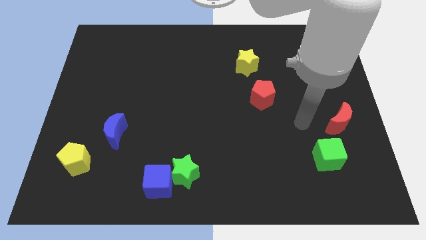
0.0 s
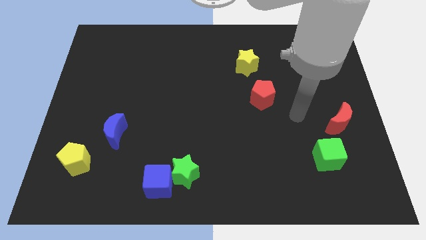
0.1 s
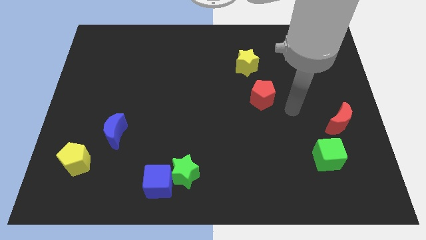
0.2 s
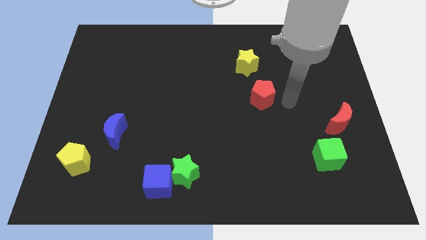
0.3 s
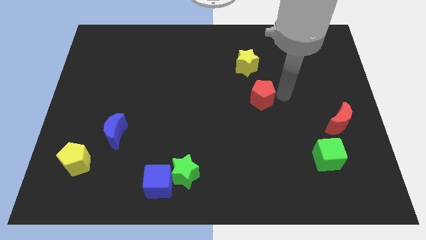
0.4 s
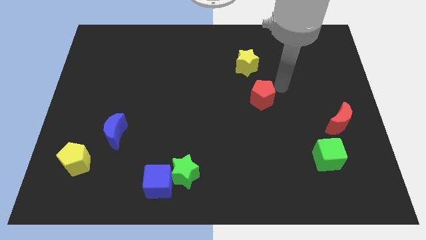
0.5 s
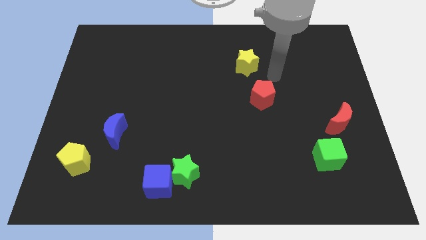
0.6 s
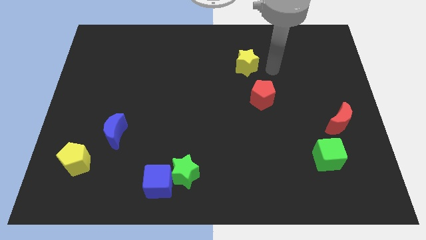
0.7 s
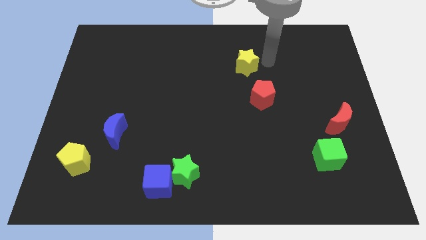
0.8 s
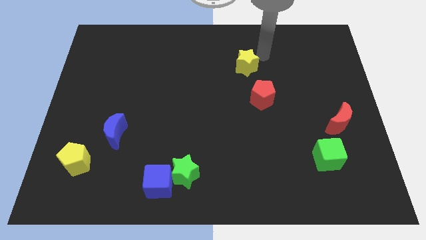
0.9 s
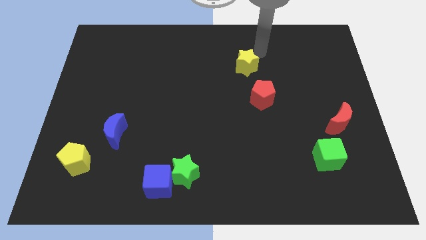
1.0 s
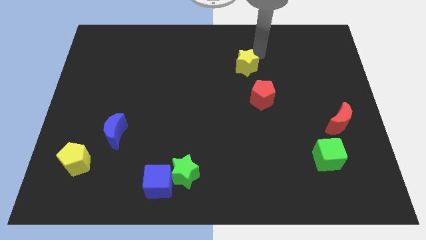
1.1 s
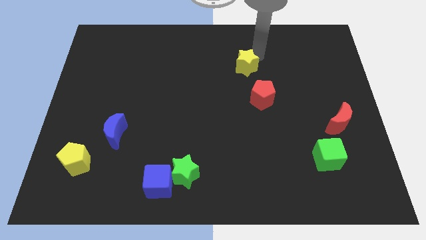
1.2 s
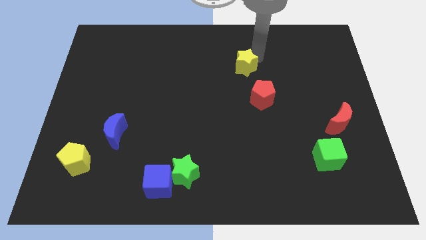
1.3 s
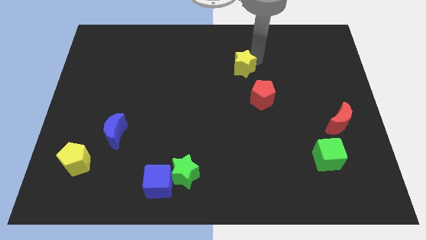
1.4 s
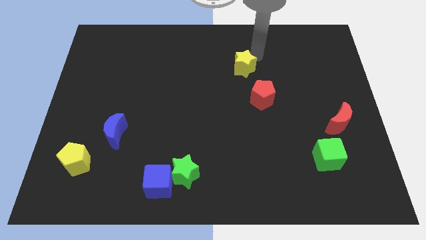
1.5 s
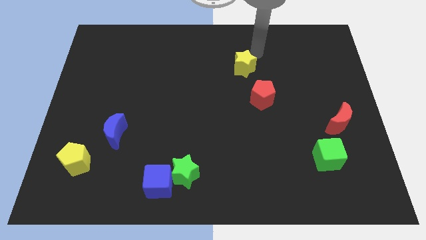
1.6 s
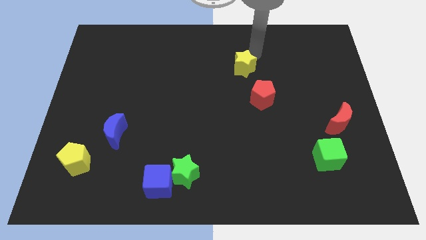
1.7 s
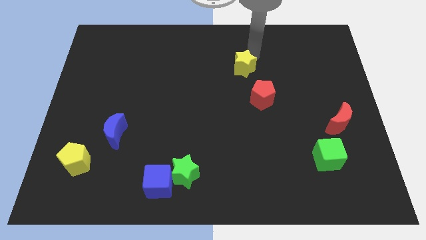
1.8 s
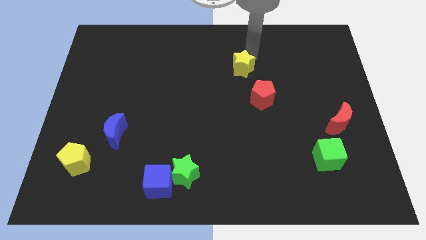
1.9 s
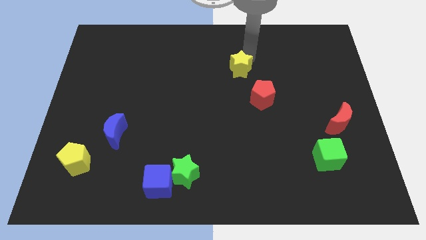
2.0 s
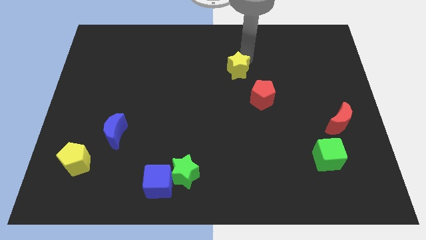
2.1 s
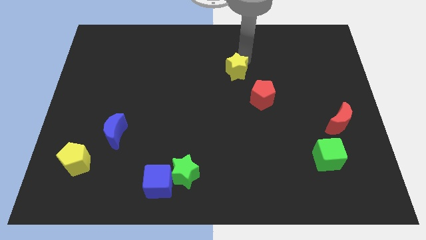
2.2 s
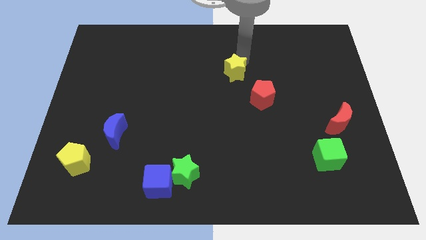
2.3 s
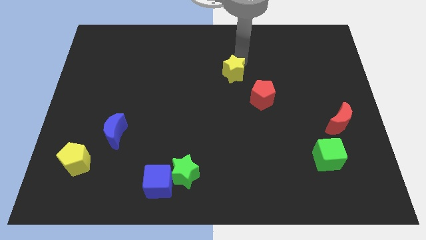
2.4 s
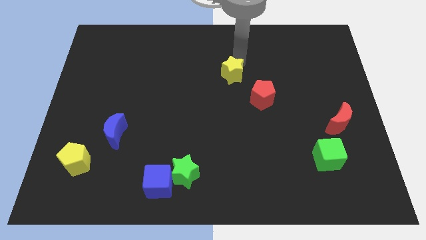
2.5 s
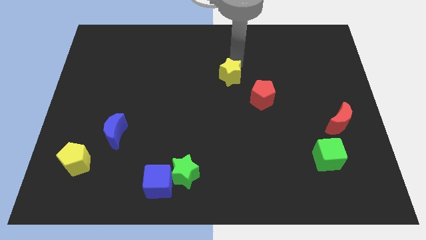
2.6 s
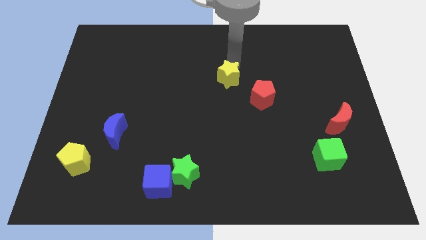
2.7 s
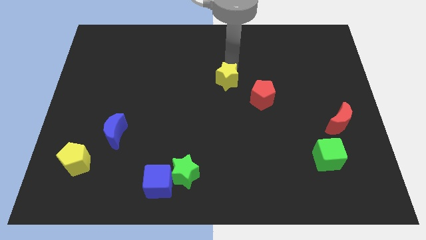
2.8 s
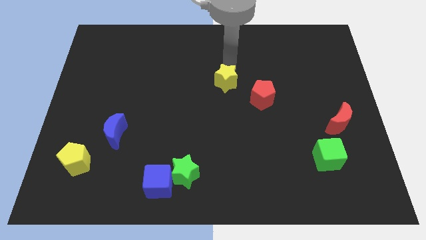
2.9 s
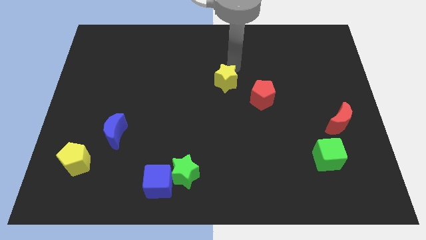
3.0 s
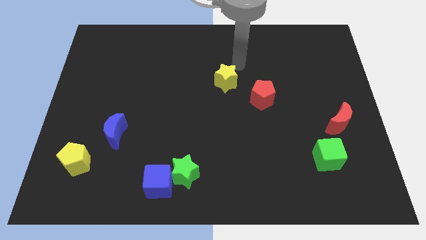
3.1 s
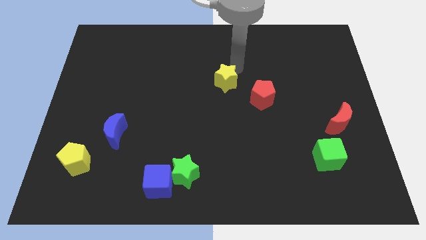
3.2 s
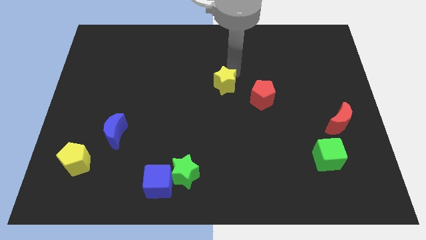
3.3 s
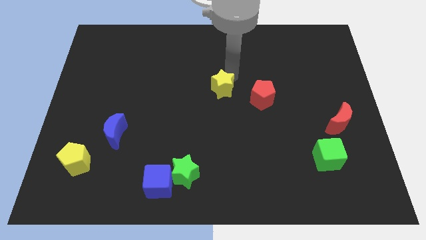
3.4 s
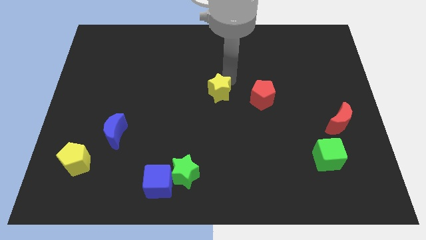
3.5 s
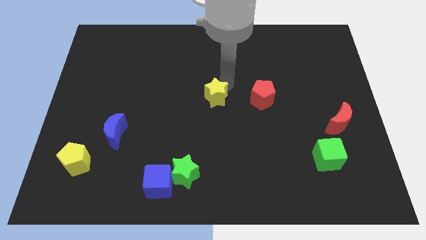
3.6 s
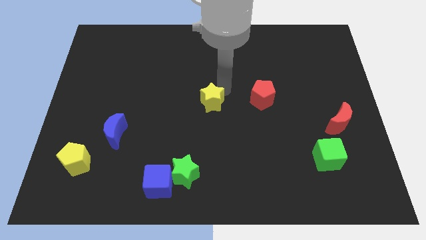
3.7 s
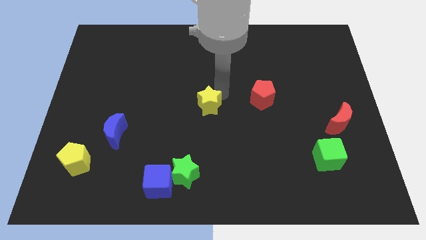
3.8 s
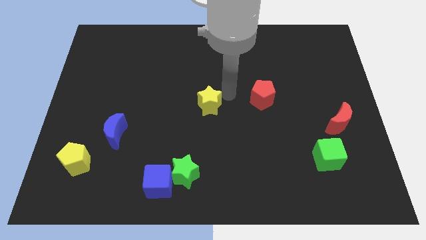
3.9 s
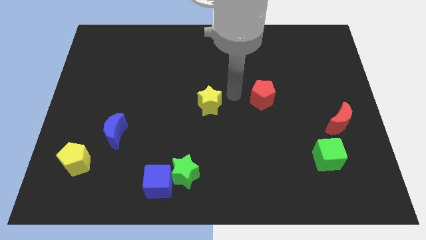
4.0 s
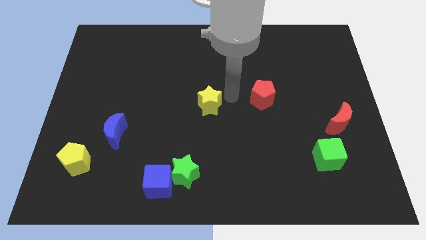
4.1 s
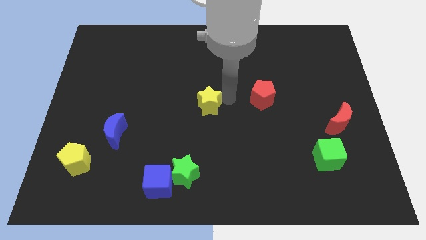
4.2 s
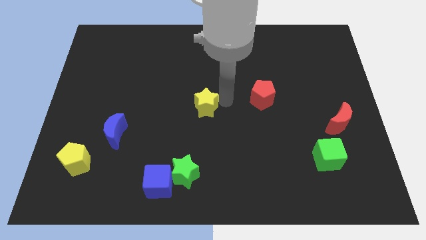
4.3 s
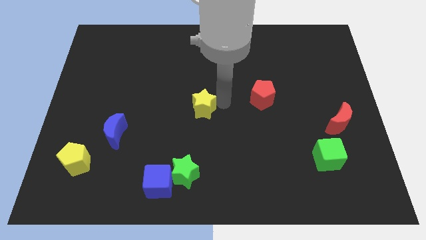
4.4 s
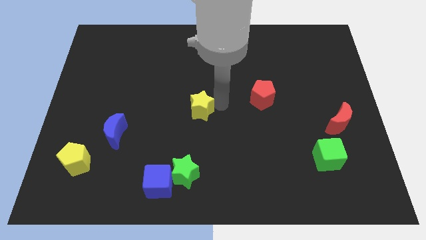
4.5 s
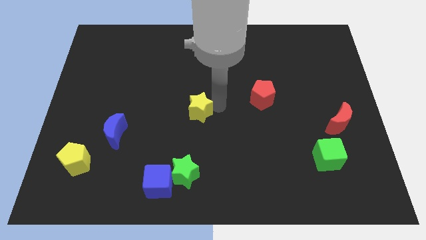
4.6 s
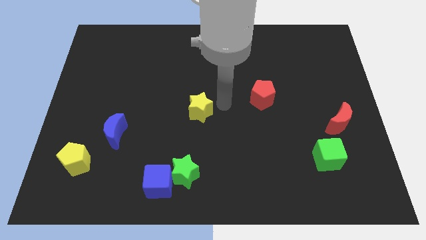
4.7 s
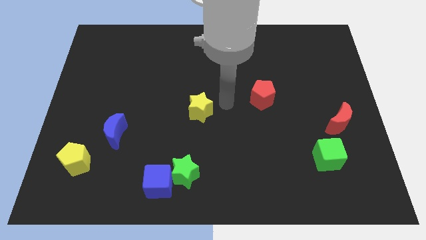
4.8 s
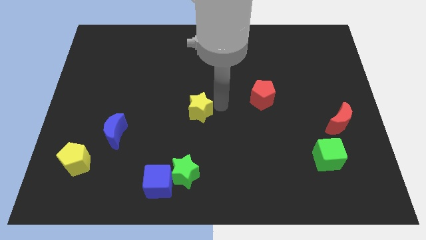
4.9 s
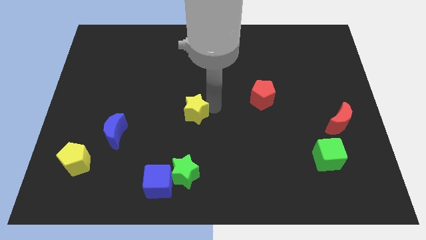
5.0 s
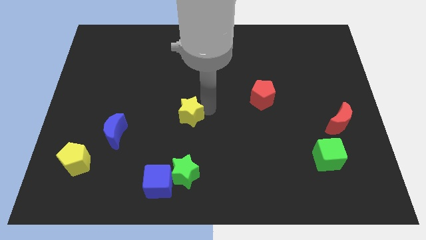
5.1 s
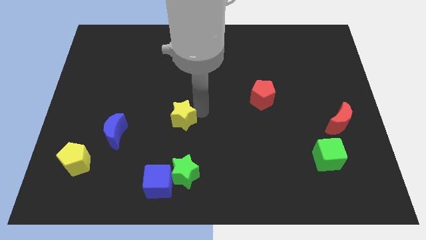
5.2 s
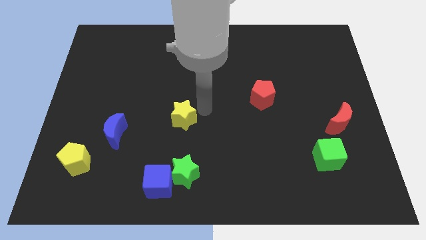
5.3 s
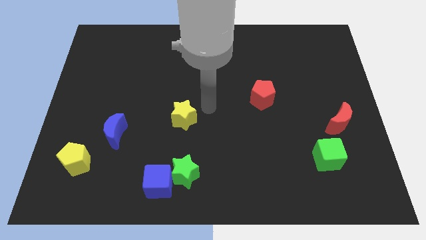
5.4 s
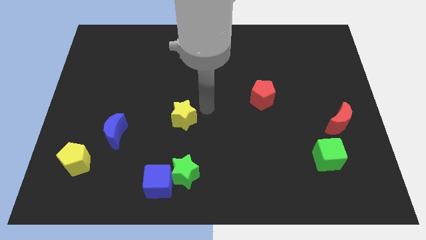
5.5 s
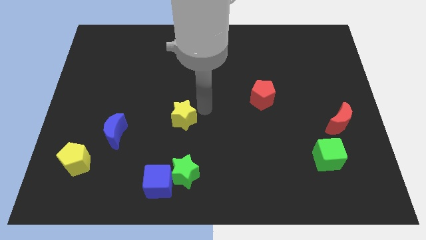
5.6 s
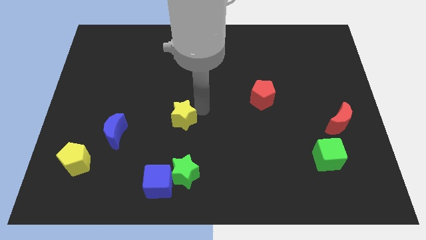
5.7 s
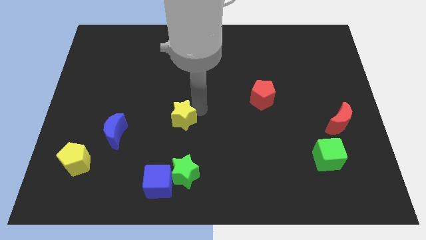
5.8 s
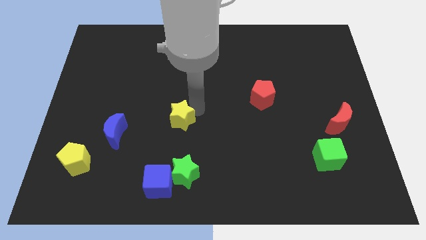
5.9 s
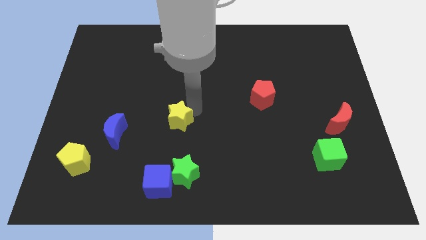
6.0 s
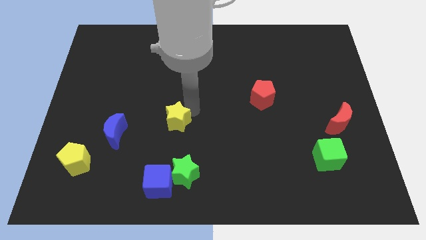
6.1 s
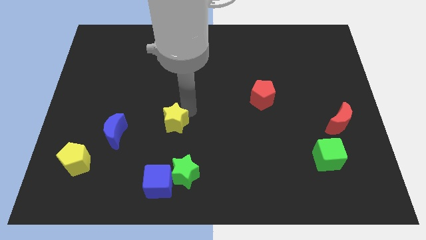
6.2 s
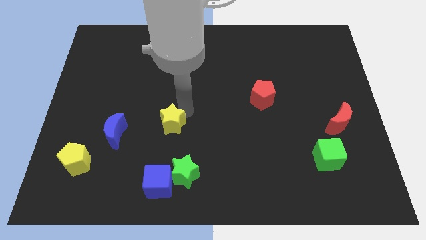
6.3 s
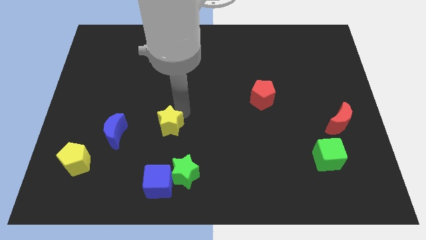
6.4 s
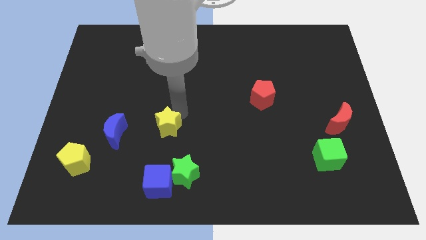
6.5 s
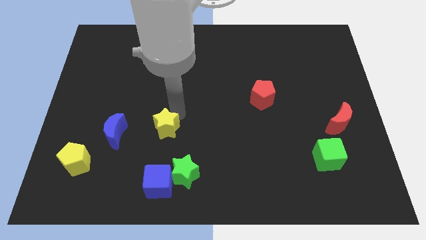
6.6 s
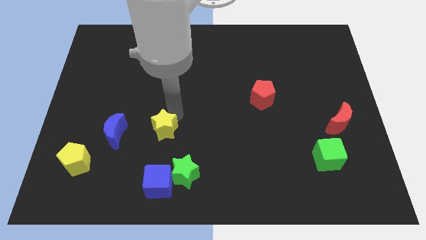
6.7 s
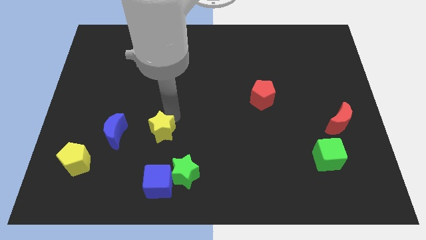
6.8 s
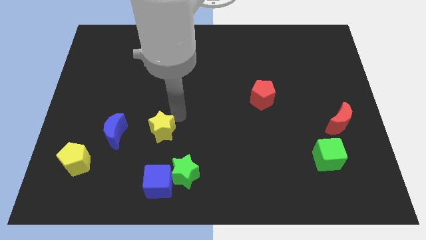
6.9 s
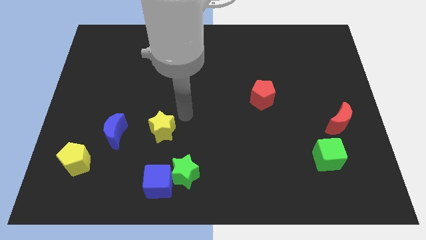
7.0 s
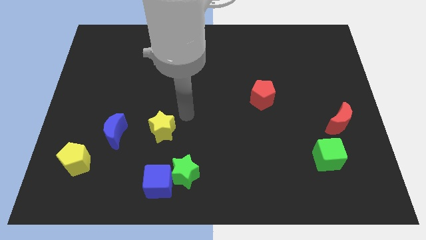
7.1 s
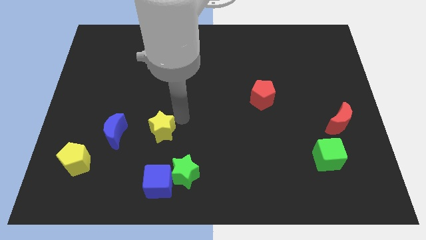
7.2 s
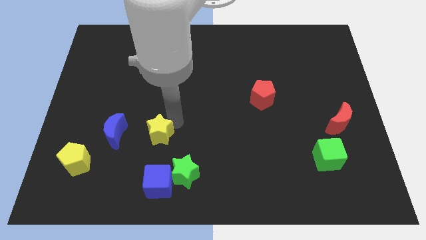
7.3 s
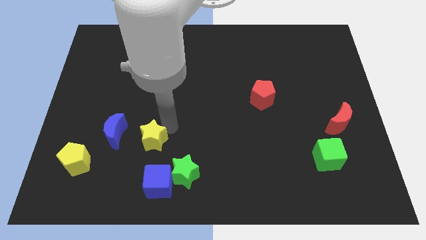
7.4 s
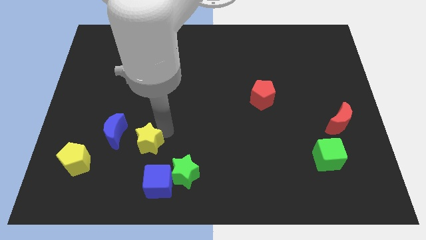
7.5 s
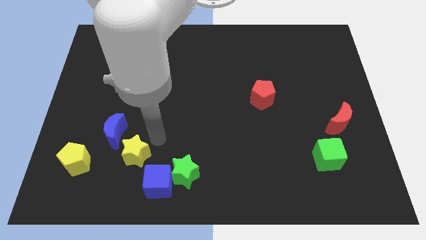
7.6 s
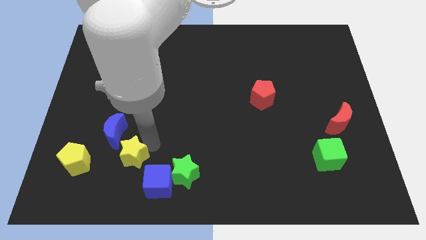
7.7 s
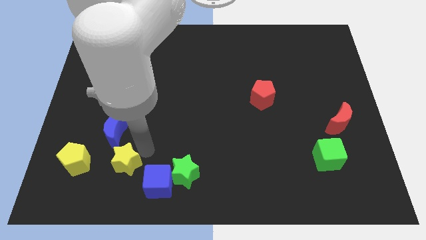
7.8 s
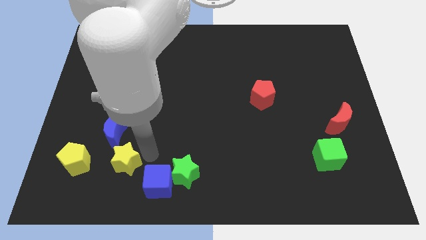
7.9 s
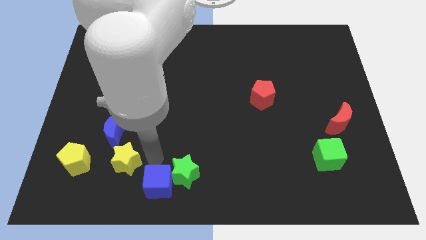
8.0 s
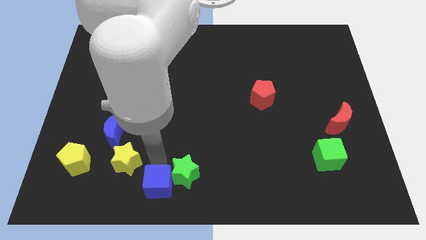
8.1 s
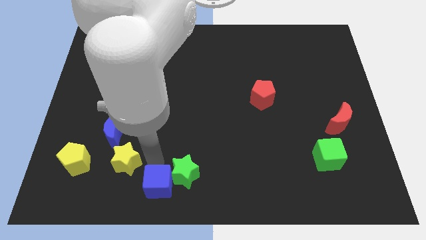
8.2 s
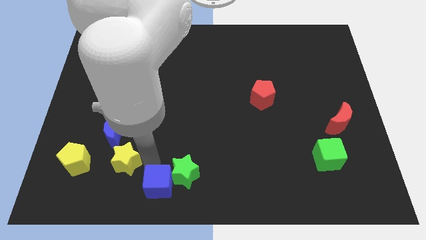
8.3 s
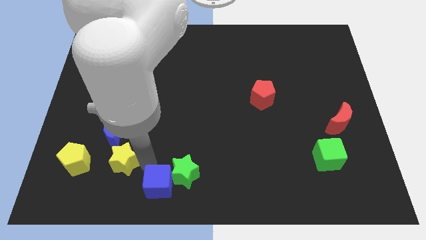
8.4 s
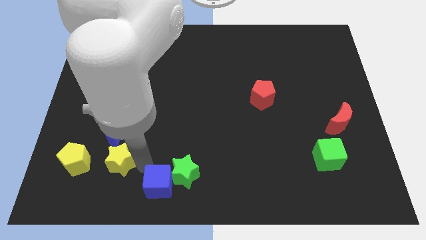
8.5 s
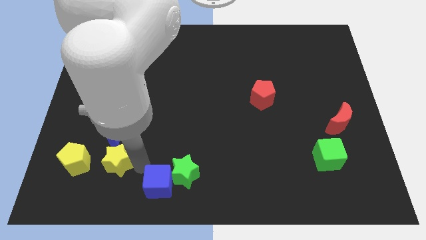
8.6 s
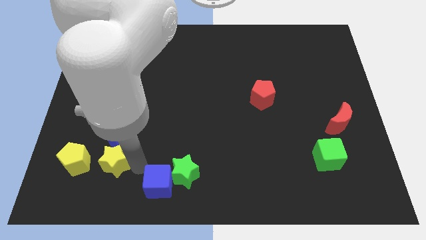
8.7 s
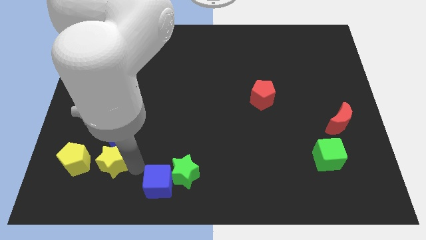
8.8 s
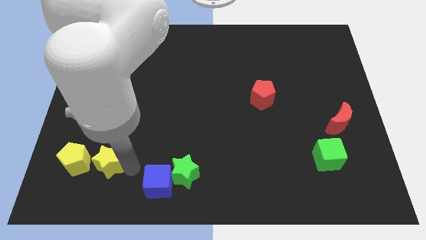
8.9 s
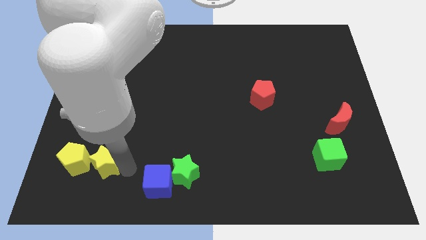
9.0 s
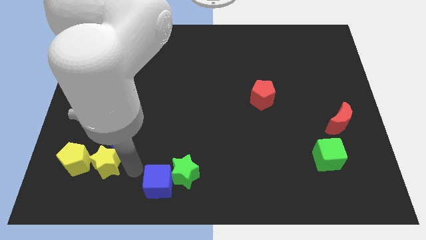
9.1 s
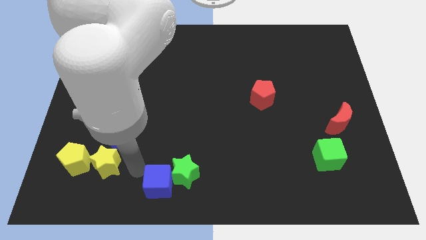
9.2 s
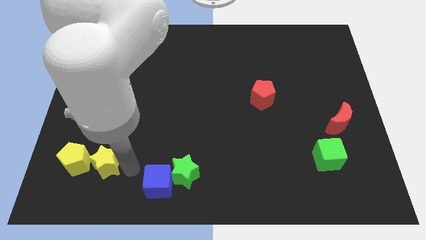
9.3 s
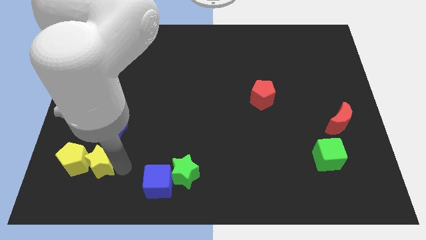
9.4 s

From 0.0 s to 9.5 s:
push the yellow star close to the yellow pentagon
